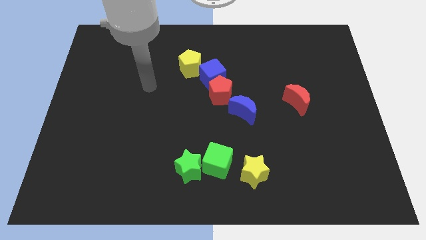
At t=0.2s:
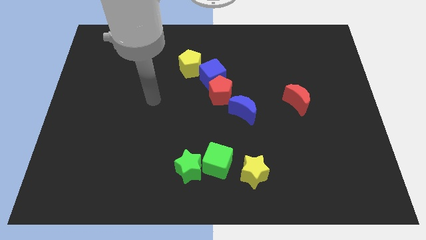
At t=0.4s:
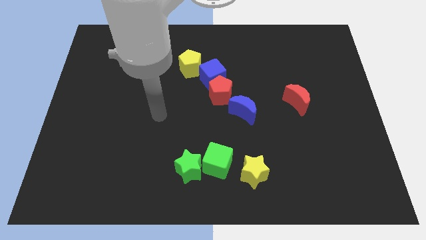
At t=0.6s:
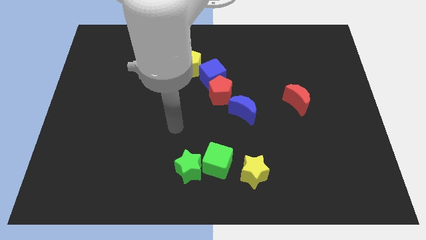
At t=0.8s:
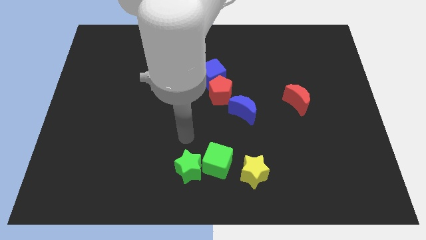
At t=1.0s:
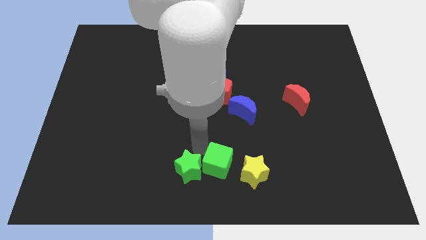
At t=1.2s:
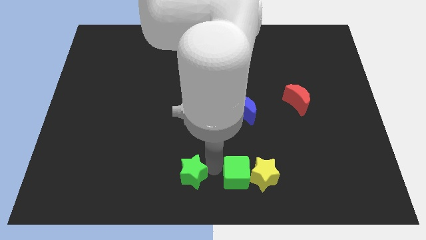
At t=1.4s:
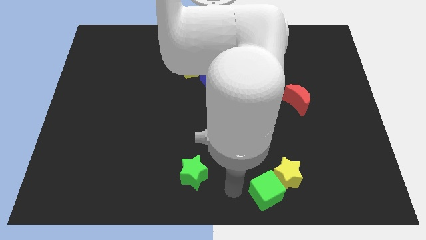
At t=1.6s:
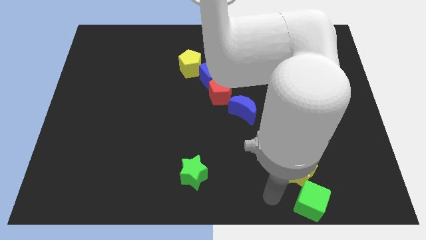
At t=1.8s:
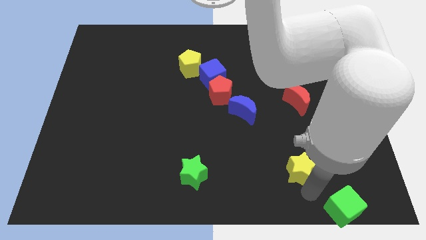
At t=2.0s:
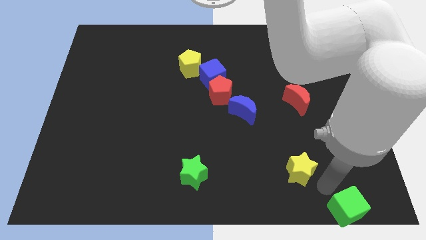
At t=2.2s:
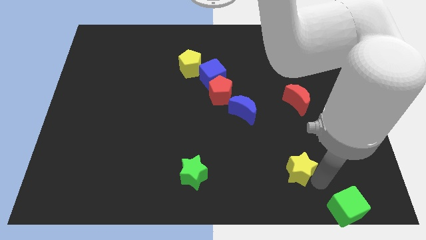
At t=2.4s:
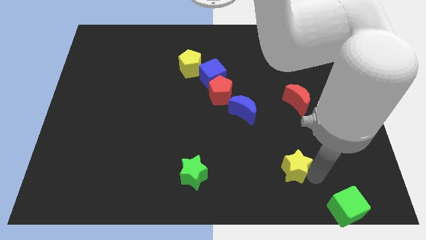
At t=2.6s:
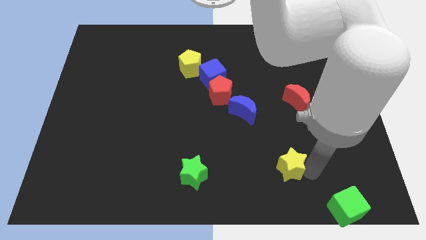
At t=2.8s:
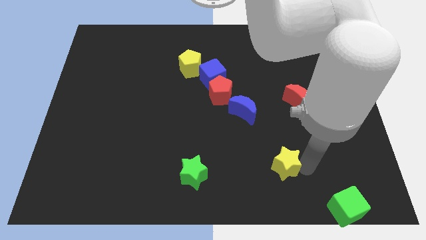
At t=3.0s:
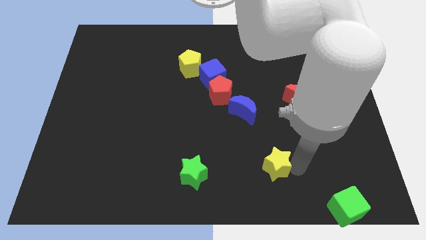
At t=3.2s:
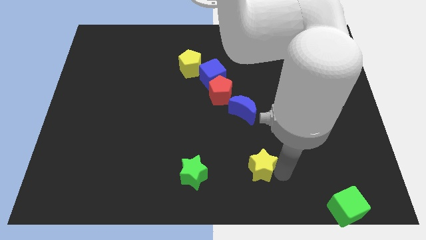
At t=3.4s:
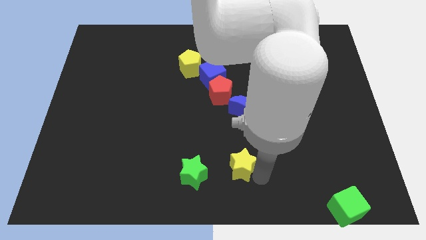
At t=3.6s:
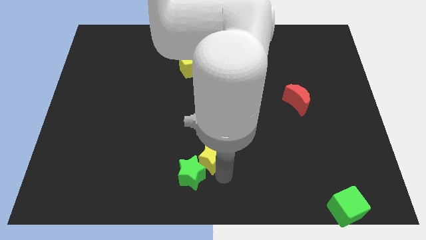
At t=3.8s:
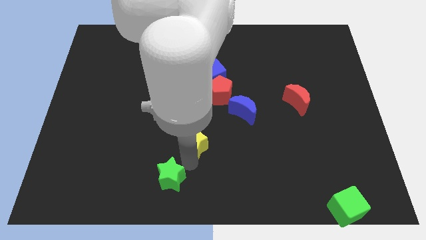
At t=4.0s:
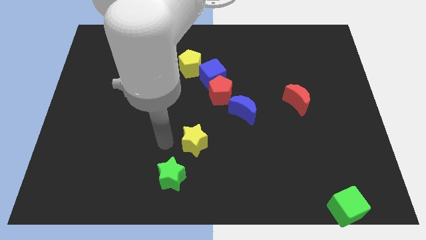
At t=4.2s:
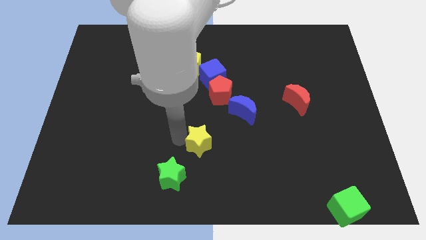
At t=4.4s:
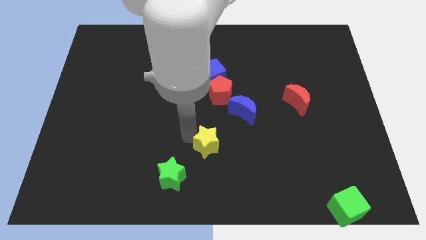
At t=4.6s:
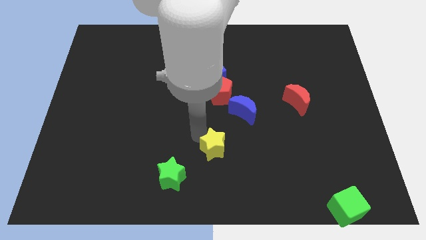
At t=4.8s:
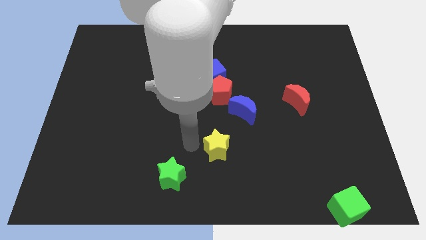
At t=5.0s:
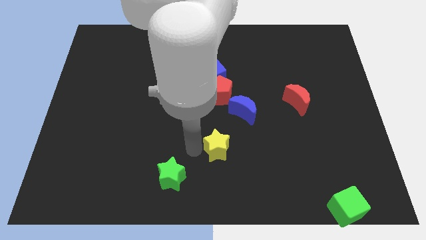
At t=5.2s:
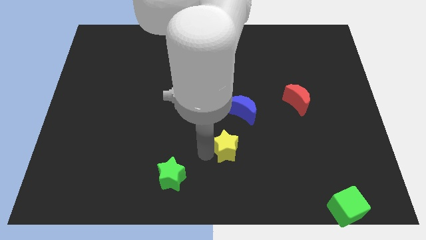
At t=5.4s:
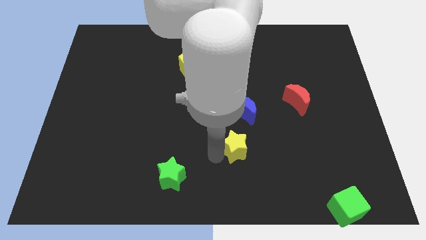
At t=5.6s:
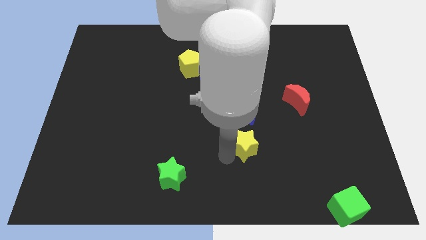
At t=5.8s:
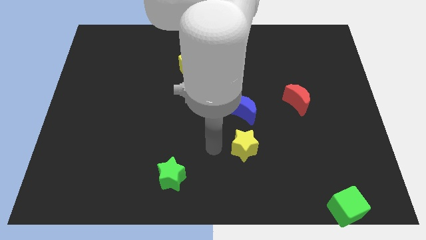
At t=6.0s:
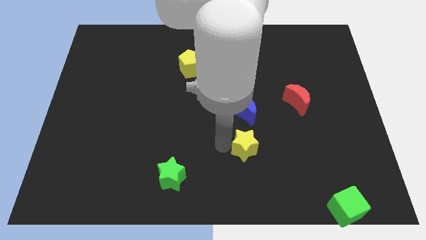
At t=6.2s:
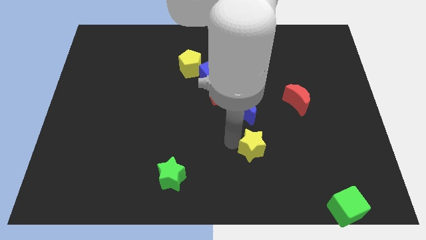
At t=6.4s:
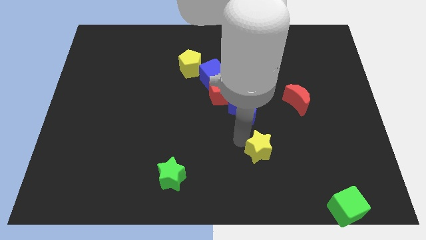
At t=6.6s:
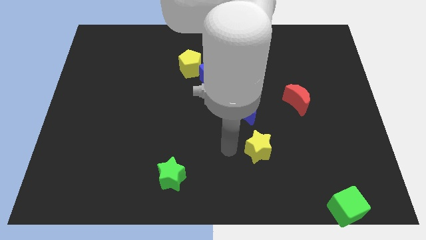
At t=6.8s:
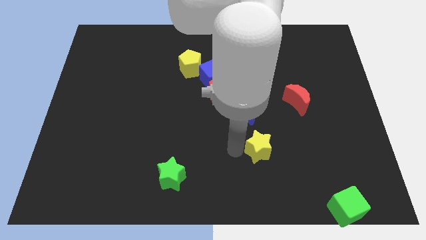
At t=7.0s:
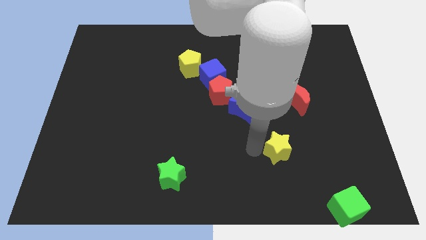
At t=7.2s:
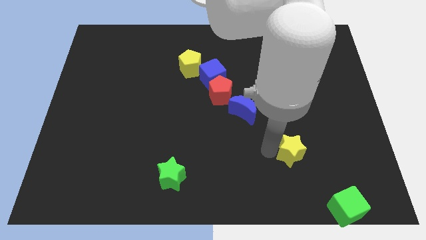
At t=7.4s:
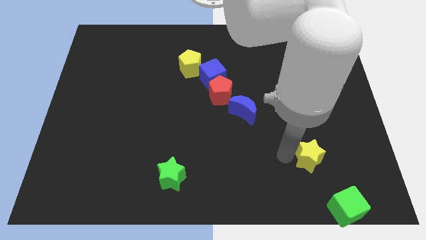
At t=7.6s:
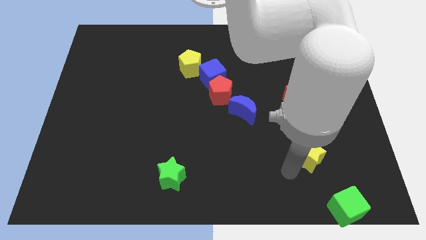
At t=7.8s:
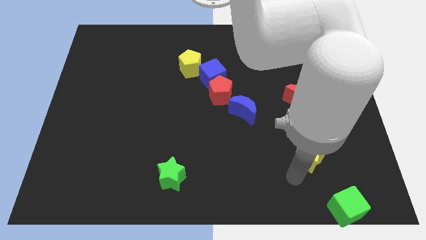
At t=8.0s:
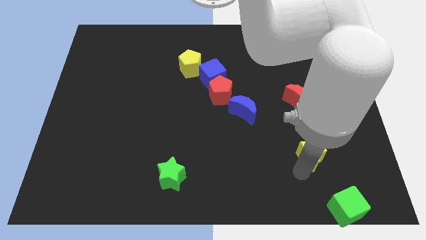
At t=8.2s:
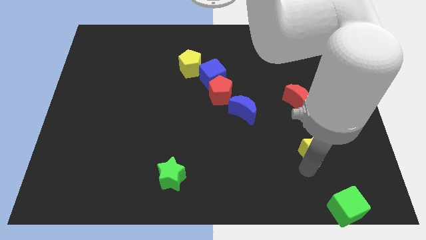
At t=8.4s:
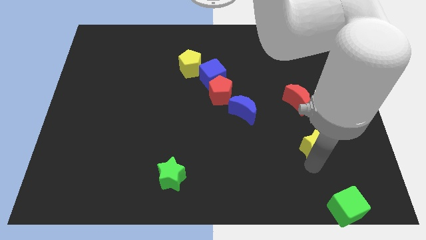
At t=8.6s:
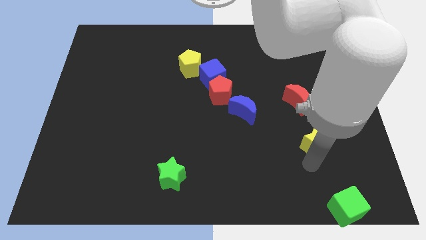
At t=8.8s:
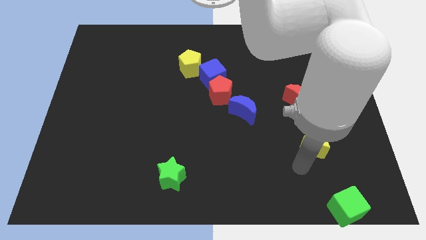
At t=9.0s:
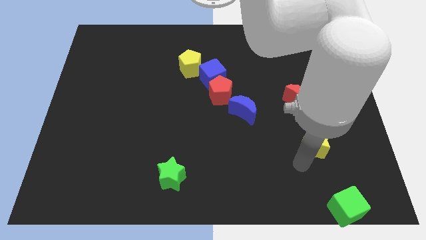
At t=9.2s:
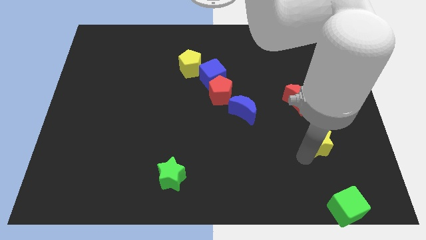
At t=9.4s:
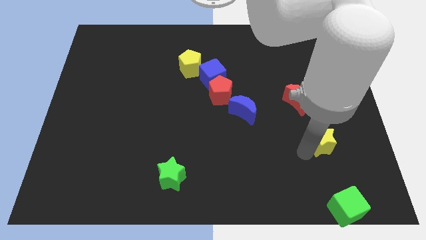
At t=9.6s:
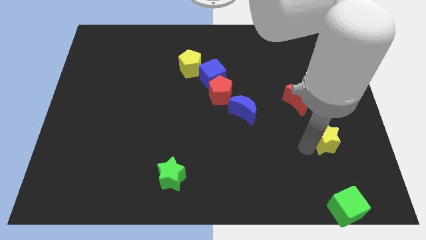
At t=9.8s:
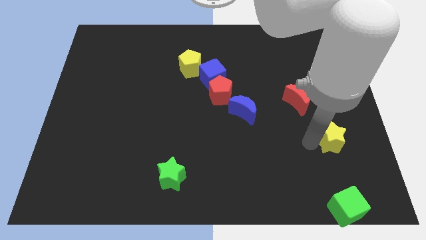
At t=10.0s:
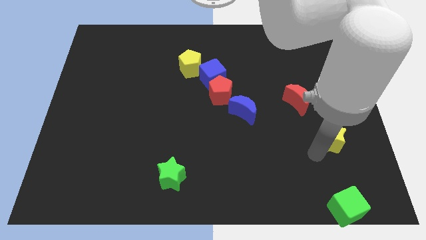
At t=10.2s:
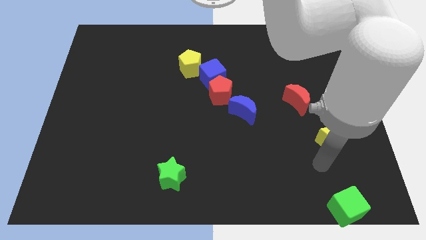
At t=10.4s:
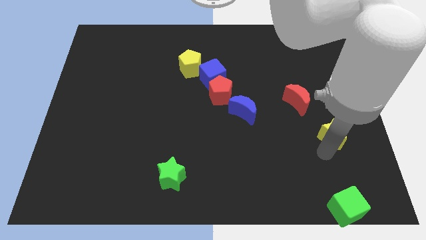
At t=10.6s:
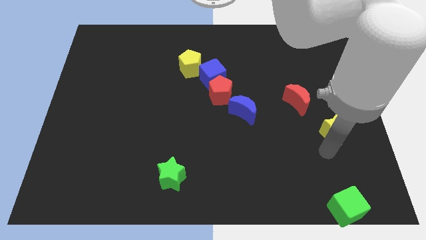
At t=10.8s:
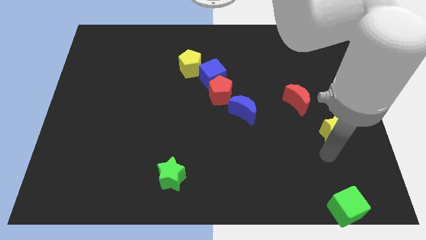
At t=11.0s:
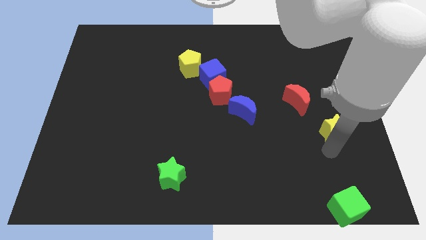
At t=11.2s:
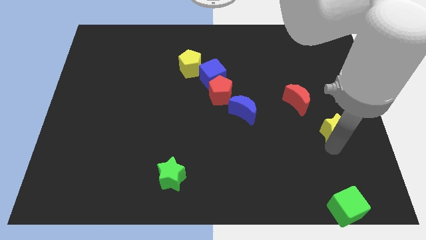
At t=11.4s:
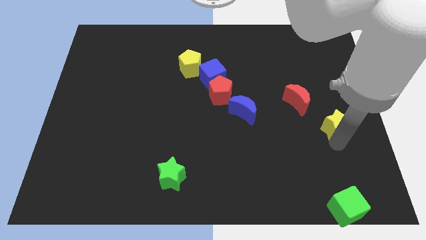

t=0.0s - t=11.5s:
put the yellow star to the right side

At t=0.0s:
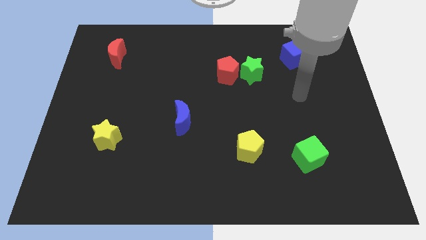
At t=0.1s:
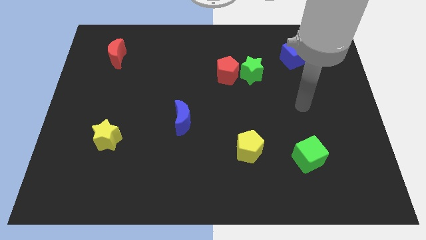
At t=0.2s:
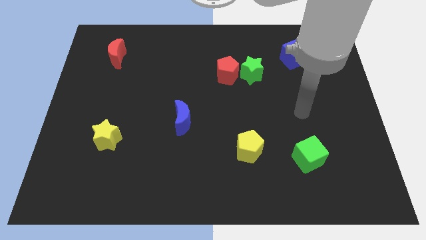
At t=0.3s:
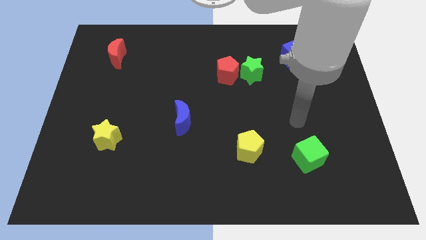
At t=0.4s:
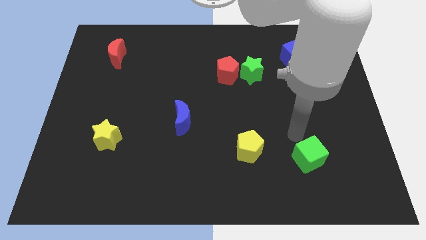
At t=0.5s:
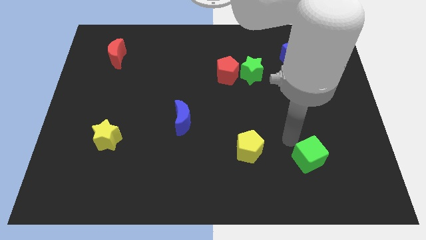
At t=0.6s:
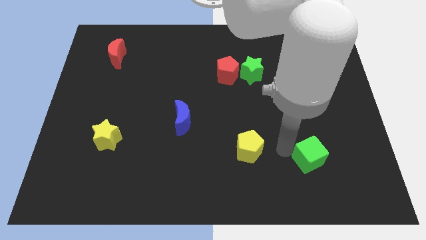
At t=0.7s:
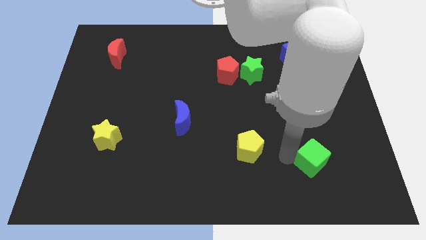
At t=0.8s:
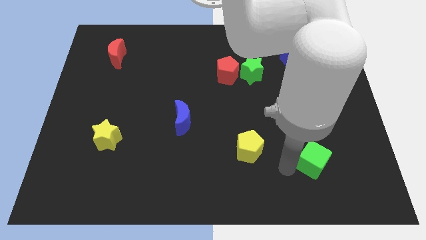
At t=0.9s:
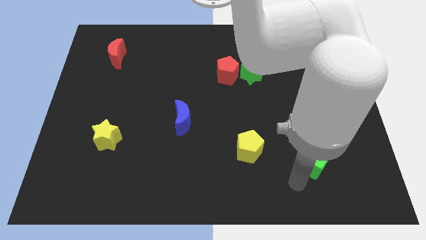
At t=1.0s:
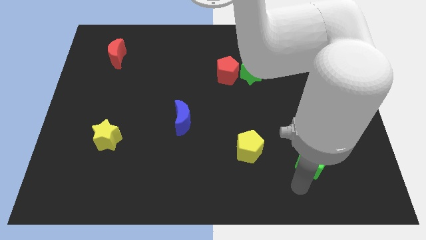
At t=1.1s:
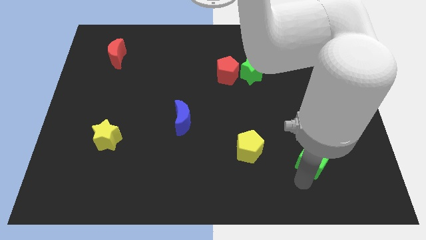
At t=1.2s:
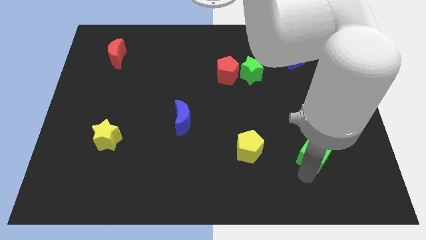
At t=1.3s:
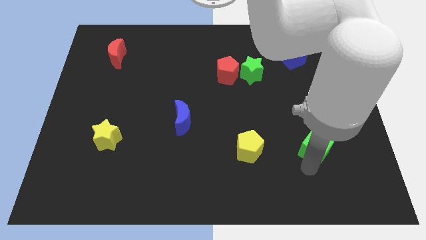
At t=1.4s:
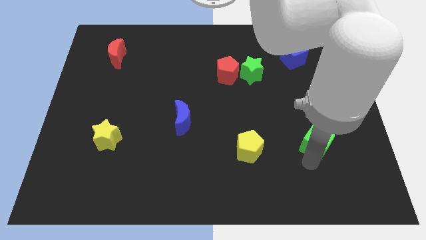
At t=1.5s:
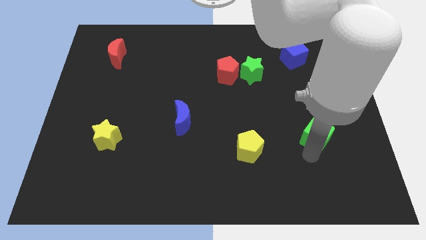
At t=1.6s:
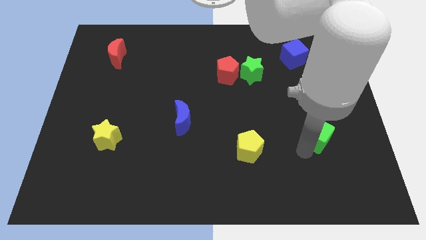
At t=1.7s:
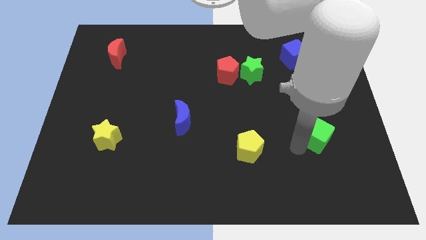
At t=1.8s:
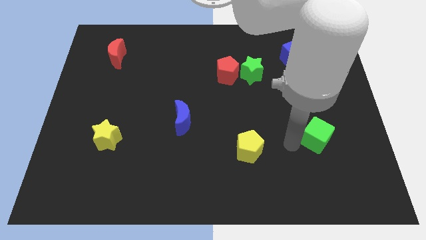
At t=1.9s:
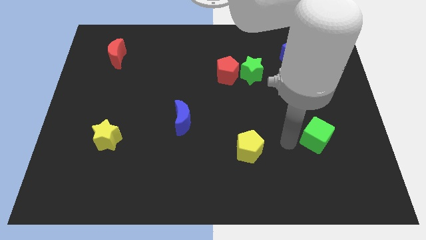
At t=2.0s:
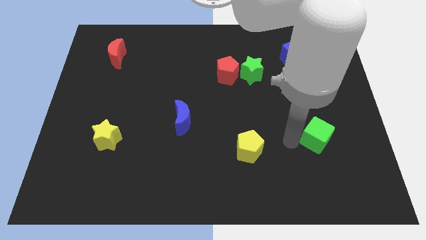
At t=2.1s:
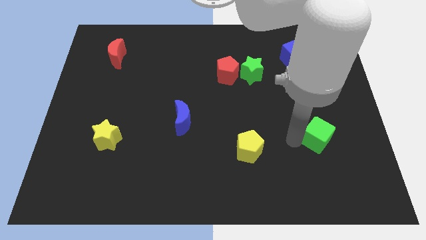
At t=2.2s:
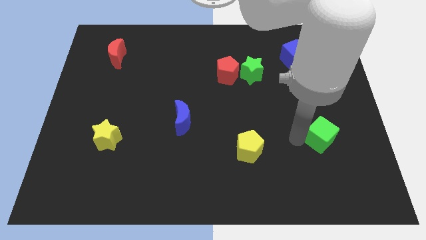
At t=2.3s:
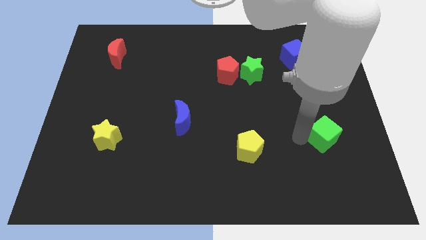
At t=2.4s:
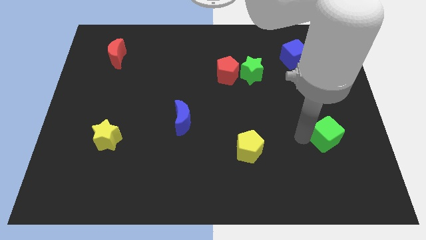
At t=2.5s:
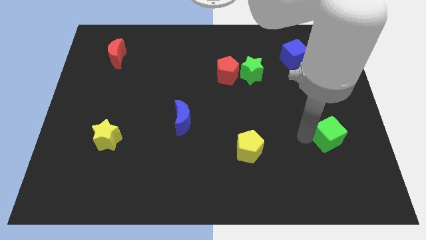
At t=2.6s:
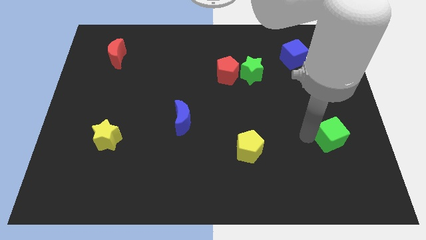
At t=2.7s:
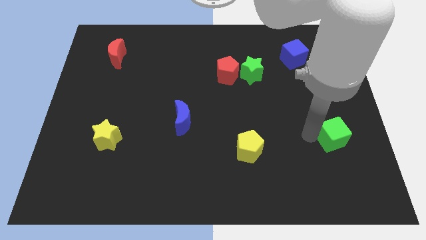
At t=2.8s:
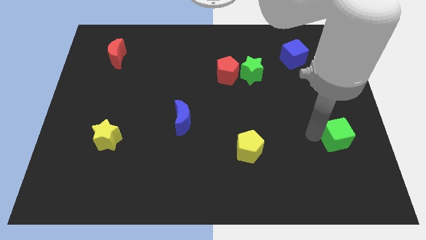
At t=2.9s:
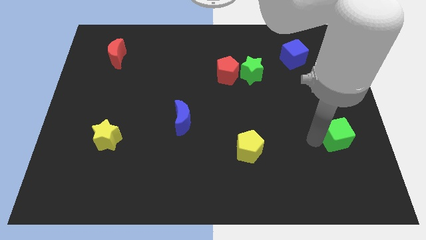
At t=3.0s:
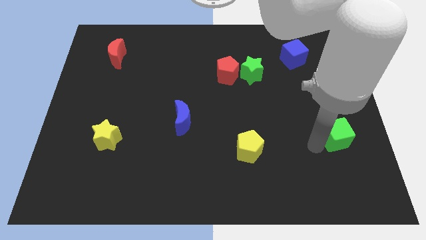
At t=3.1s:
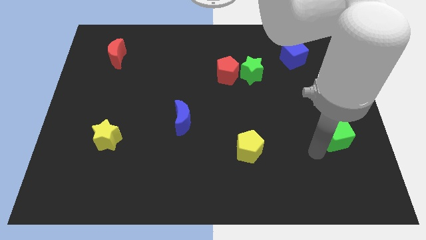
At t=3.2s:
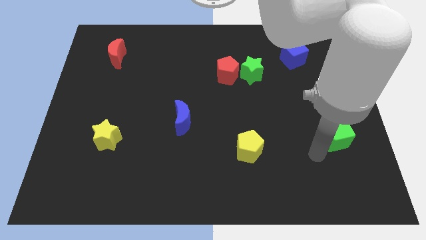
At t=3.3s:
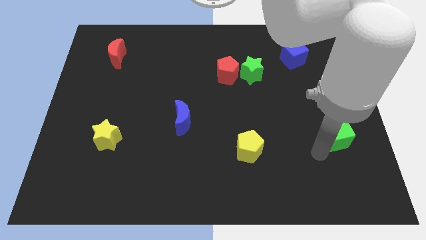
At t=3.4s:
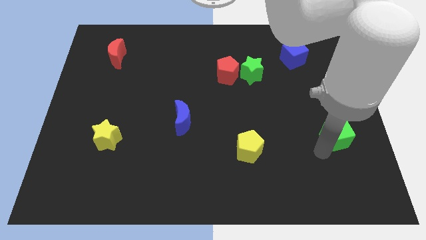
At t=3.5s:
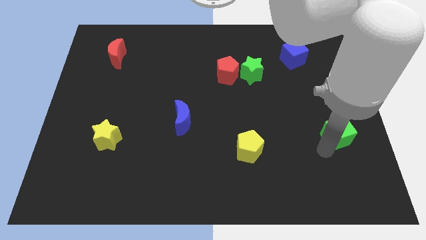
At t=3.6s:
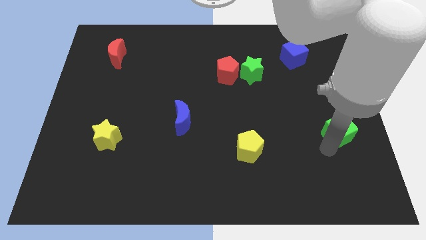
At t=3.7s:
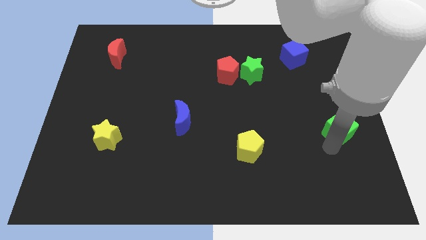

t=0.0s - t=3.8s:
push the green cube to the right side of the board
